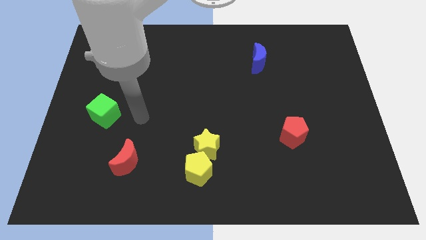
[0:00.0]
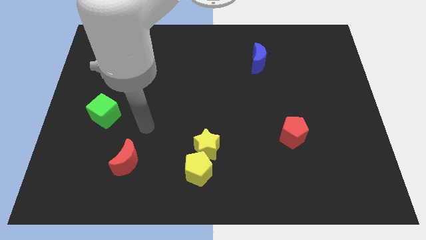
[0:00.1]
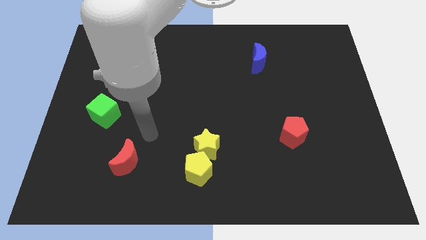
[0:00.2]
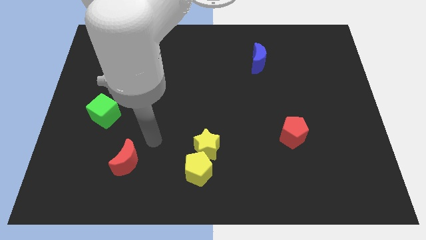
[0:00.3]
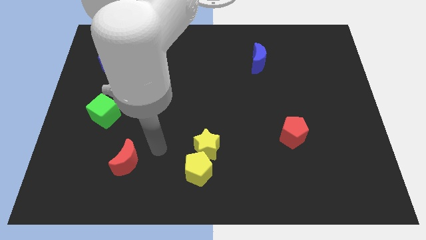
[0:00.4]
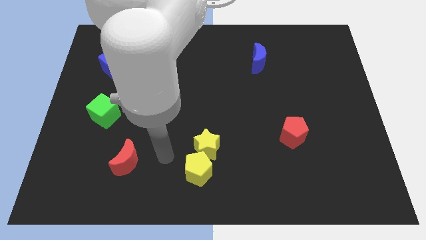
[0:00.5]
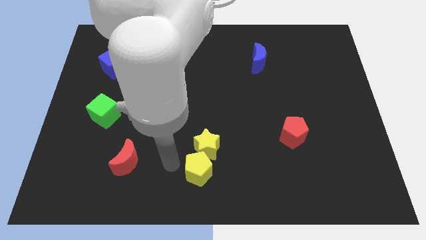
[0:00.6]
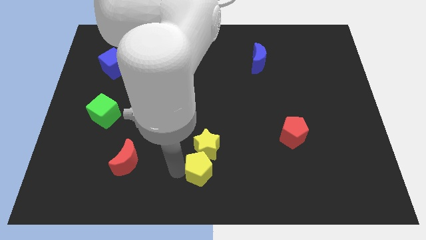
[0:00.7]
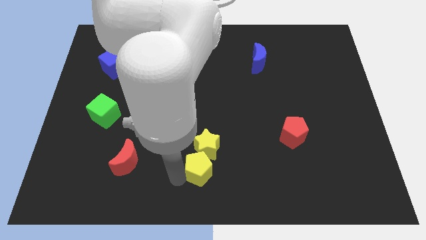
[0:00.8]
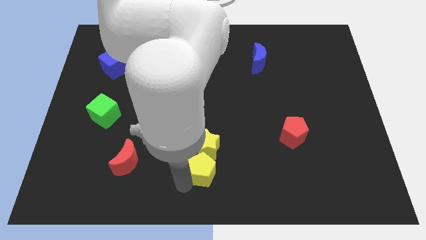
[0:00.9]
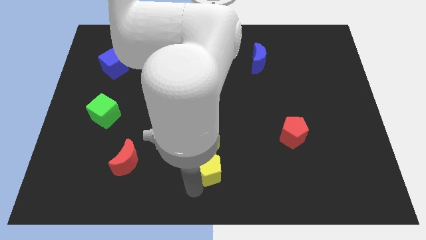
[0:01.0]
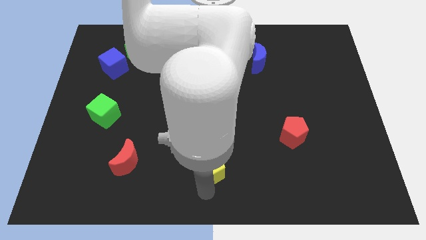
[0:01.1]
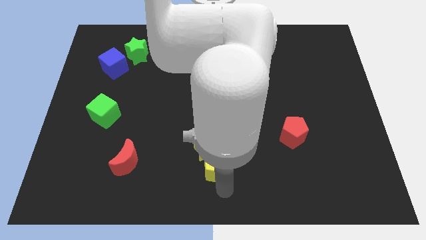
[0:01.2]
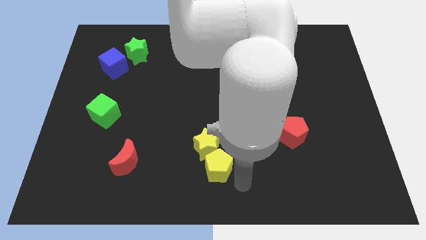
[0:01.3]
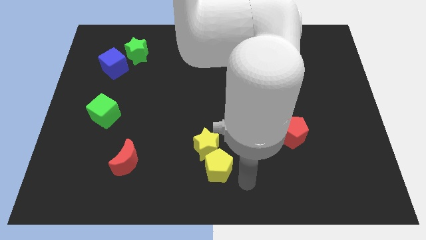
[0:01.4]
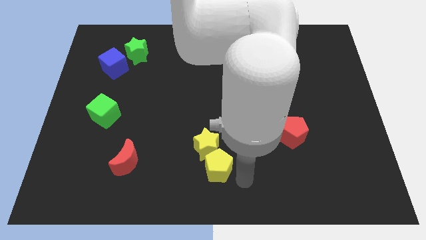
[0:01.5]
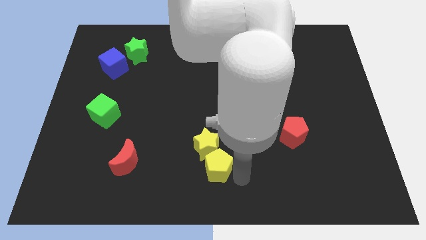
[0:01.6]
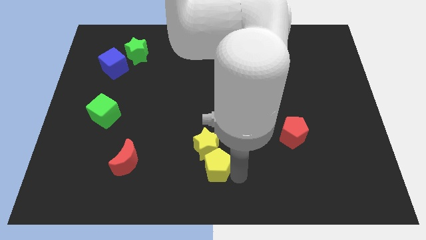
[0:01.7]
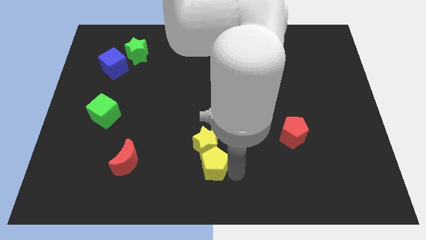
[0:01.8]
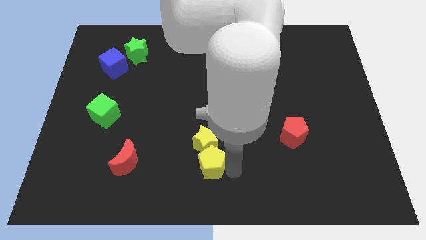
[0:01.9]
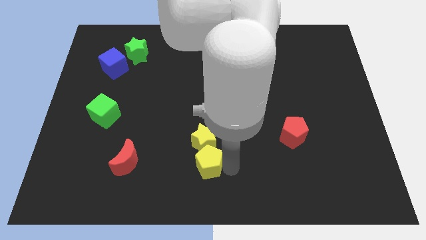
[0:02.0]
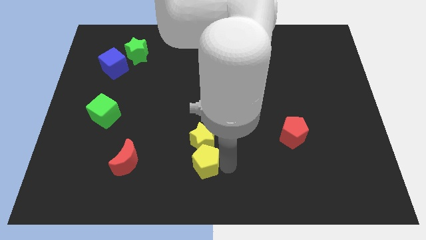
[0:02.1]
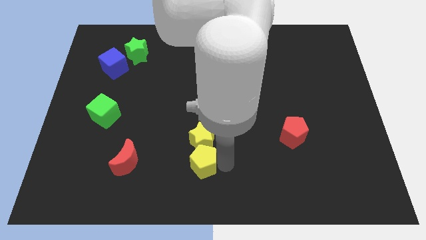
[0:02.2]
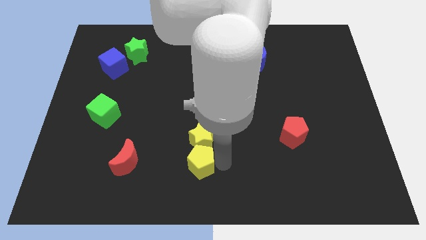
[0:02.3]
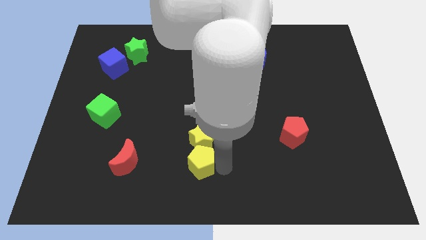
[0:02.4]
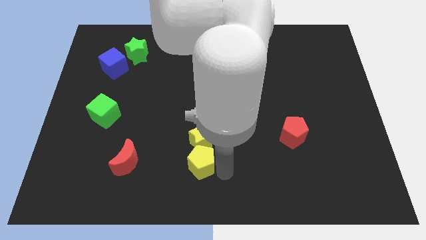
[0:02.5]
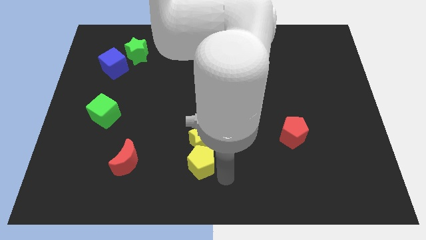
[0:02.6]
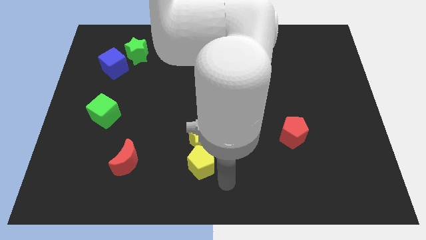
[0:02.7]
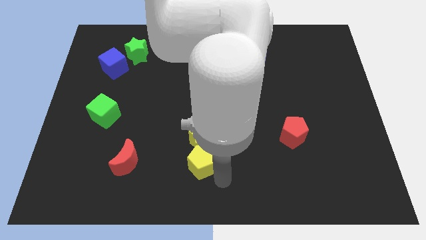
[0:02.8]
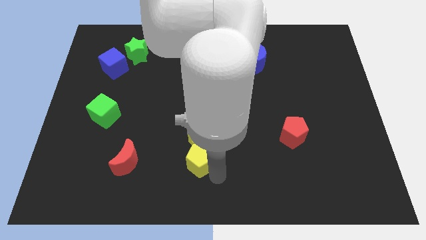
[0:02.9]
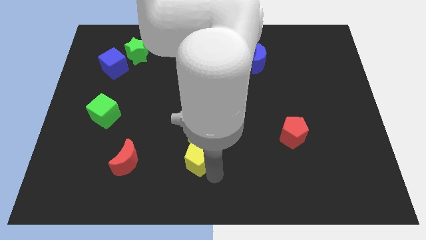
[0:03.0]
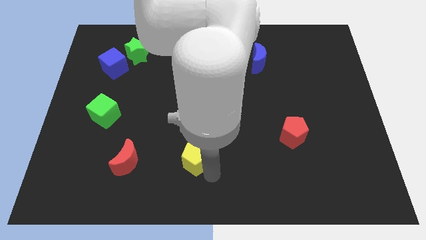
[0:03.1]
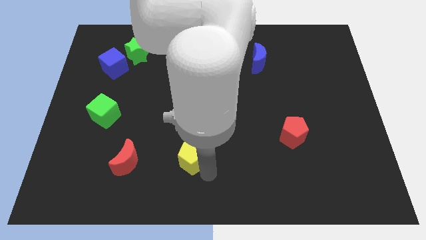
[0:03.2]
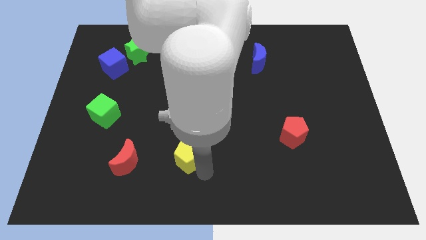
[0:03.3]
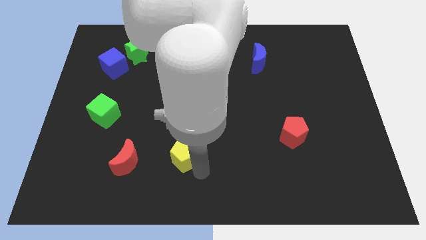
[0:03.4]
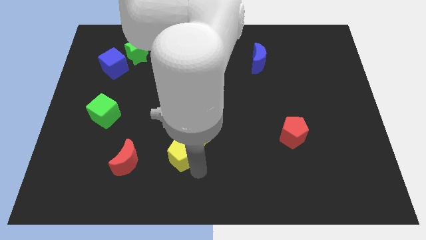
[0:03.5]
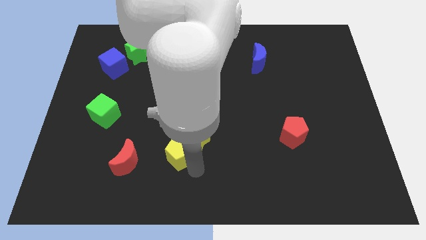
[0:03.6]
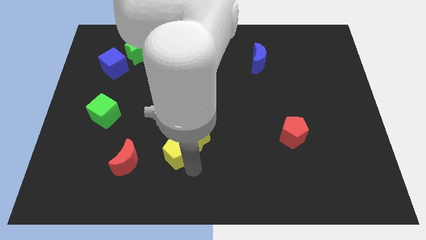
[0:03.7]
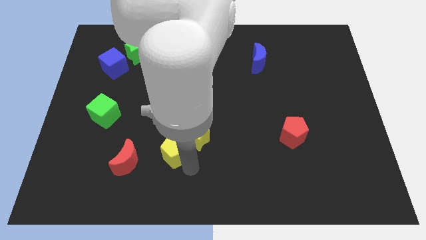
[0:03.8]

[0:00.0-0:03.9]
slightly slide the yellow pentagon upwards and left

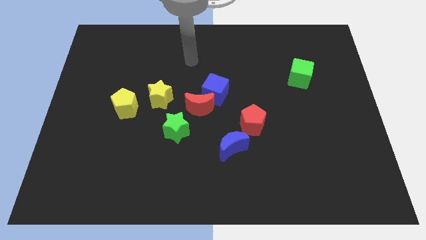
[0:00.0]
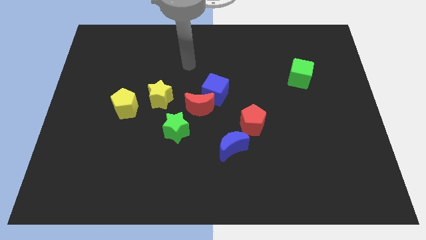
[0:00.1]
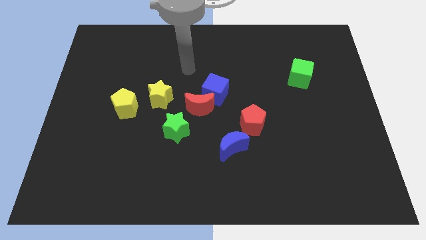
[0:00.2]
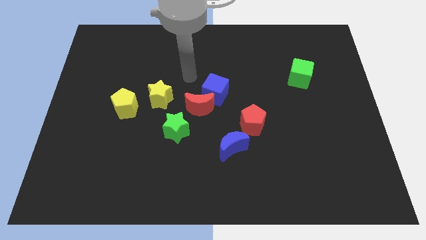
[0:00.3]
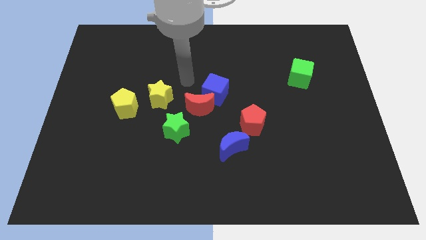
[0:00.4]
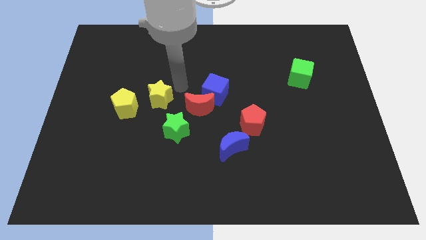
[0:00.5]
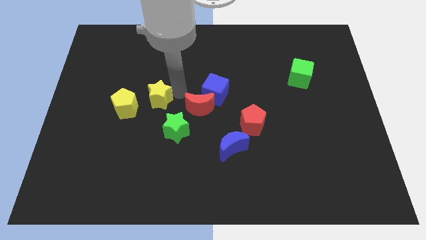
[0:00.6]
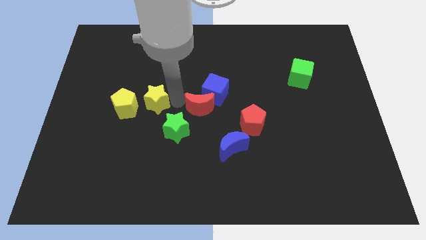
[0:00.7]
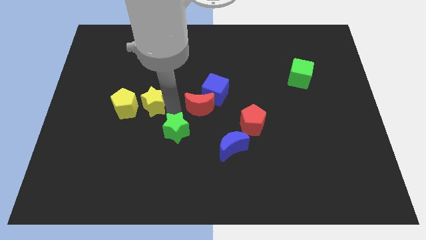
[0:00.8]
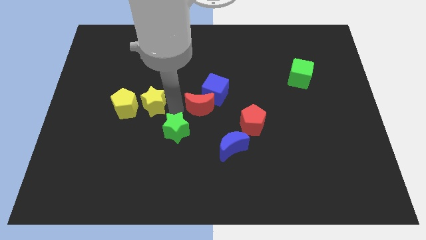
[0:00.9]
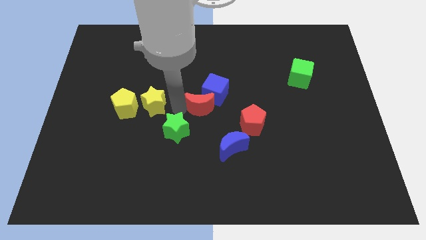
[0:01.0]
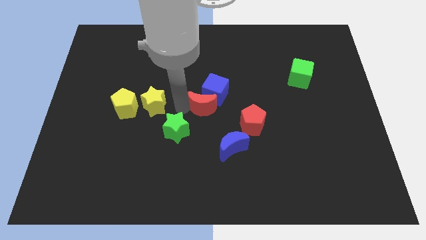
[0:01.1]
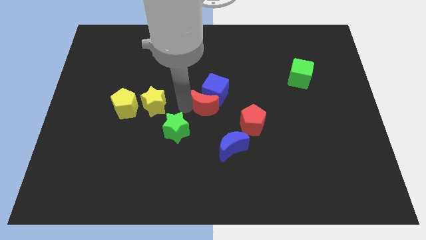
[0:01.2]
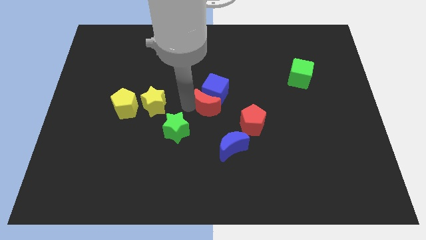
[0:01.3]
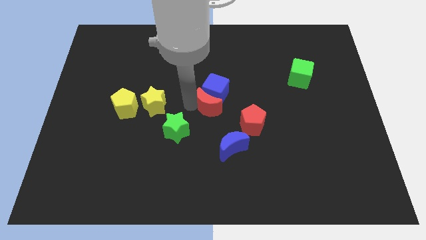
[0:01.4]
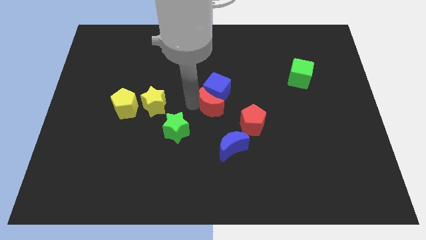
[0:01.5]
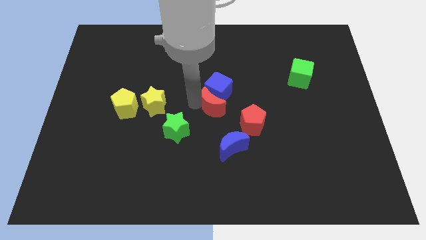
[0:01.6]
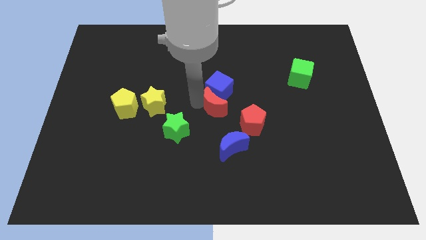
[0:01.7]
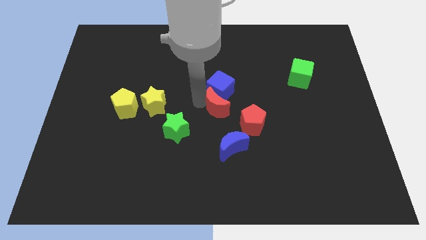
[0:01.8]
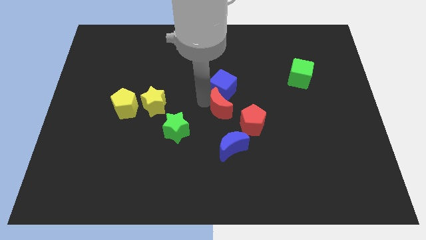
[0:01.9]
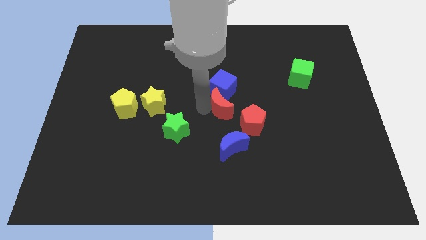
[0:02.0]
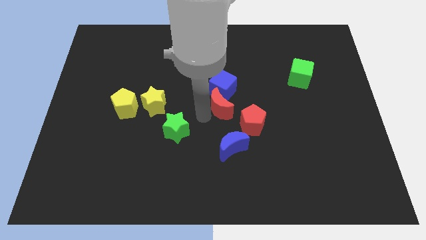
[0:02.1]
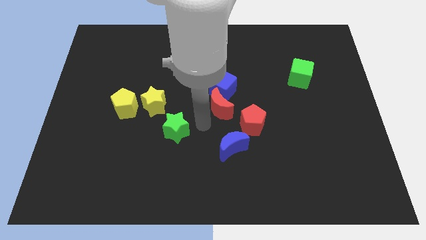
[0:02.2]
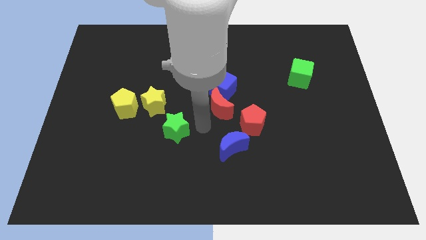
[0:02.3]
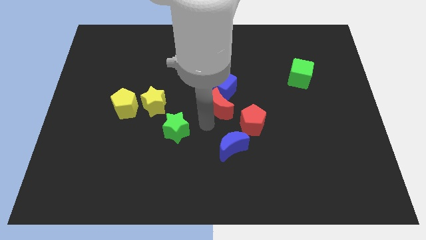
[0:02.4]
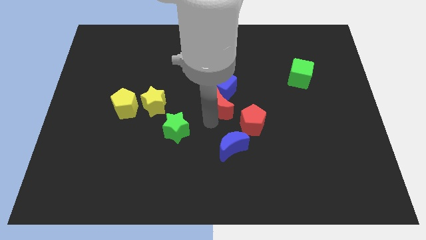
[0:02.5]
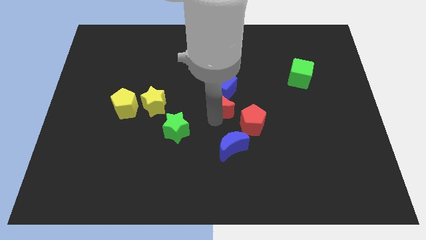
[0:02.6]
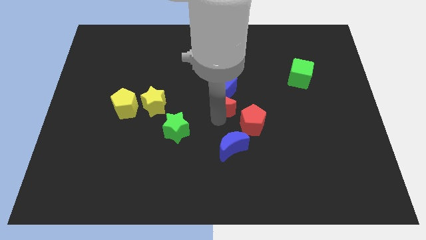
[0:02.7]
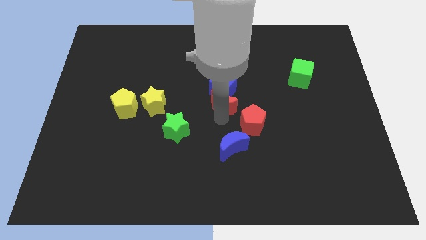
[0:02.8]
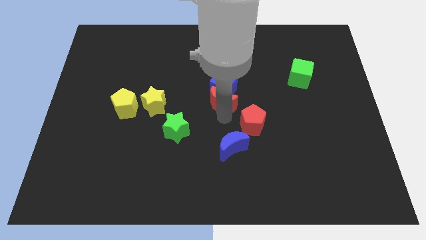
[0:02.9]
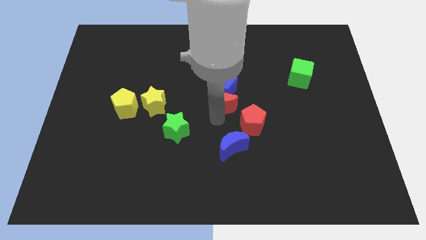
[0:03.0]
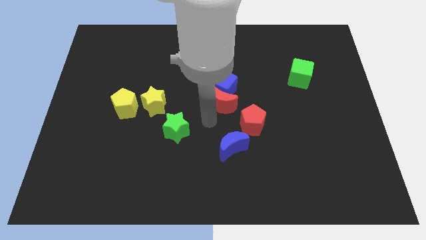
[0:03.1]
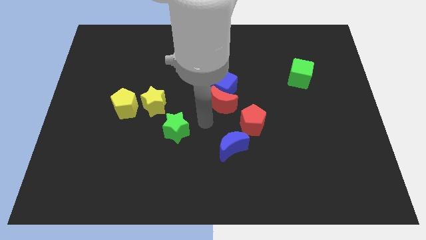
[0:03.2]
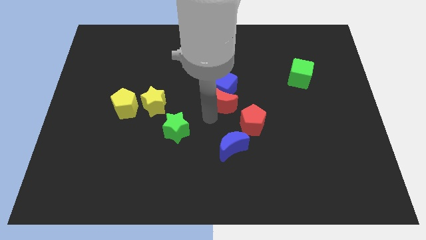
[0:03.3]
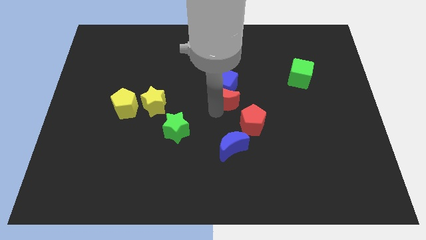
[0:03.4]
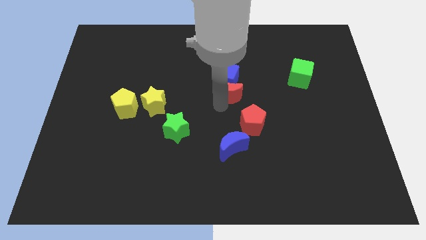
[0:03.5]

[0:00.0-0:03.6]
slightly slide the red moon up and then to the right

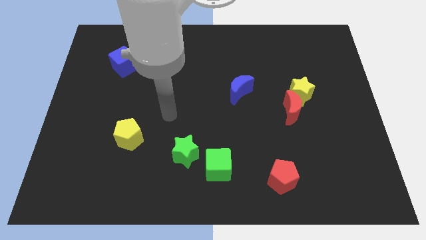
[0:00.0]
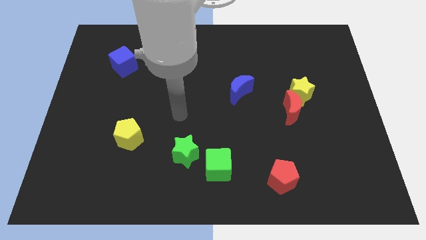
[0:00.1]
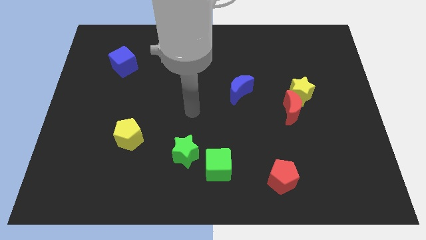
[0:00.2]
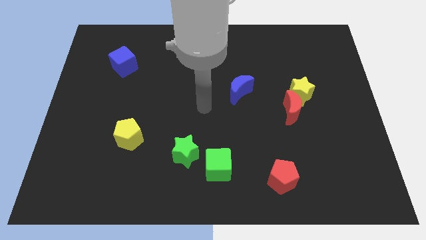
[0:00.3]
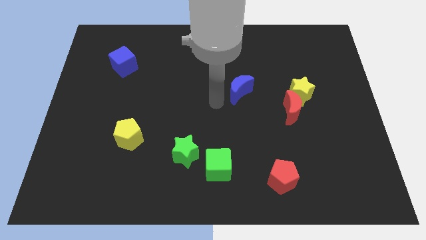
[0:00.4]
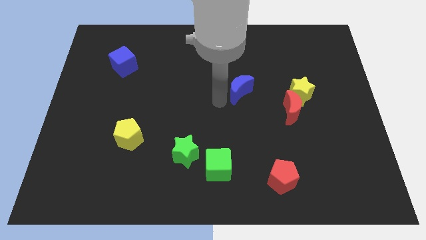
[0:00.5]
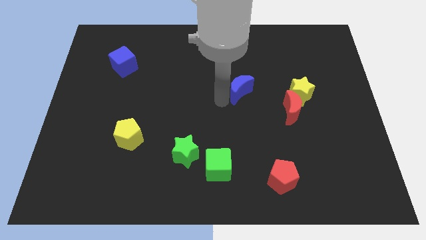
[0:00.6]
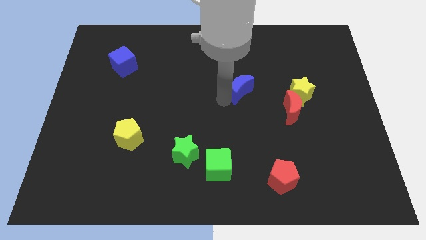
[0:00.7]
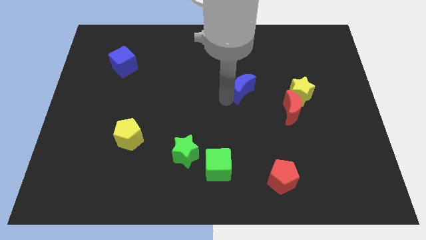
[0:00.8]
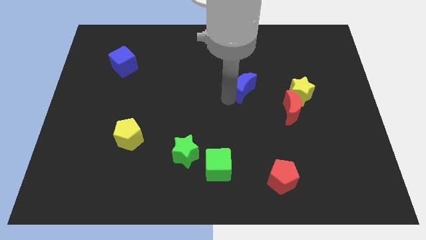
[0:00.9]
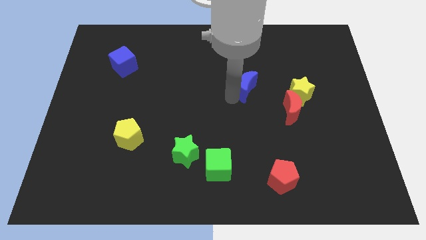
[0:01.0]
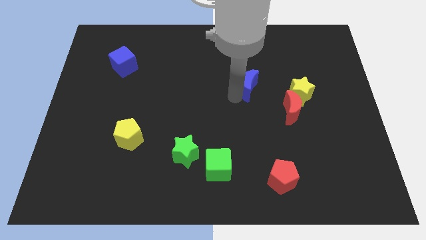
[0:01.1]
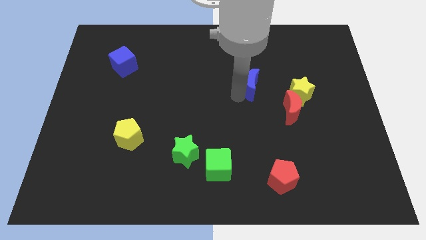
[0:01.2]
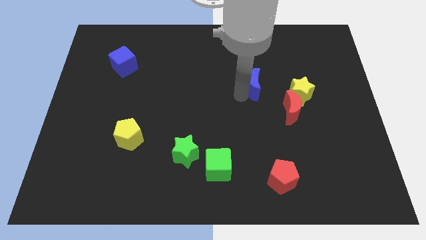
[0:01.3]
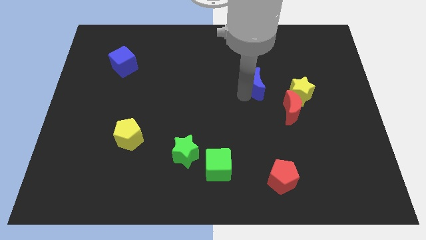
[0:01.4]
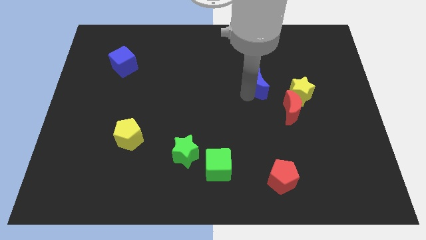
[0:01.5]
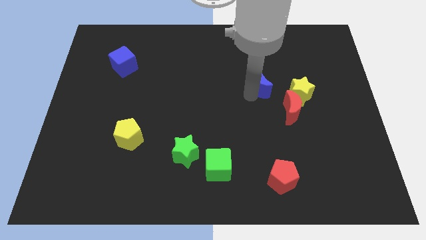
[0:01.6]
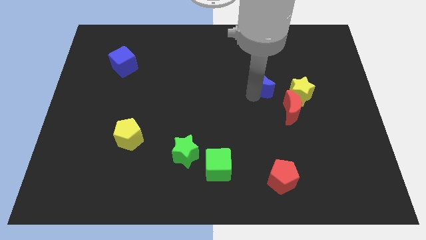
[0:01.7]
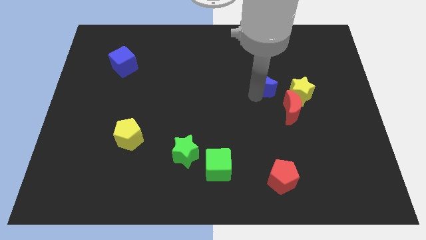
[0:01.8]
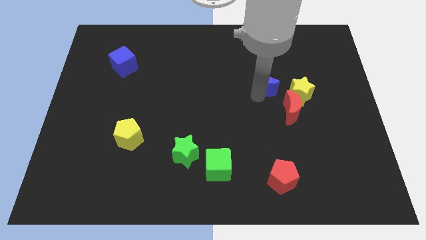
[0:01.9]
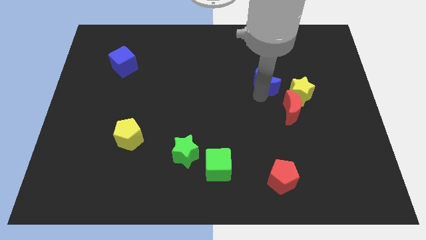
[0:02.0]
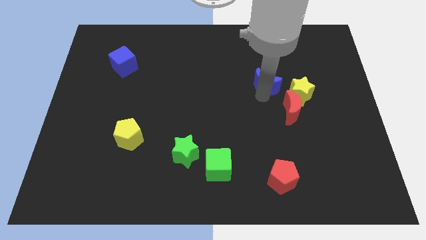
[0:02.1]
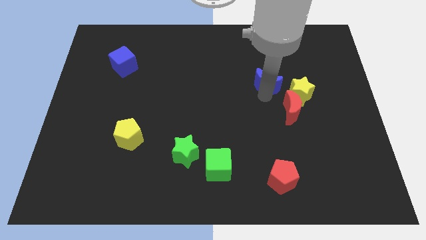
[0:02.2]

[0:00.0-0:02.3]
slightly move the blue moon right
